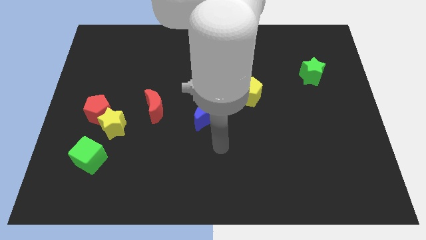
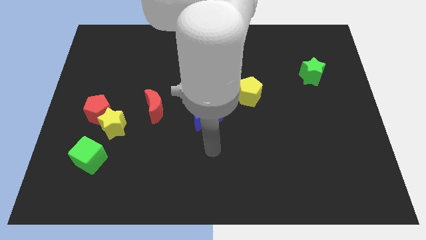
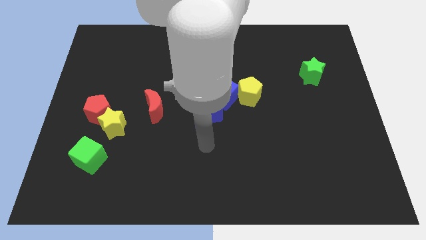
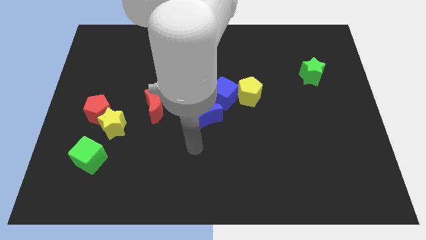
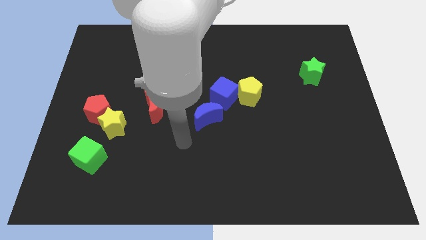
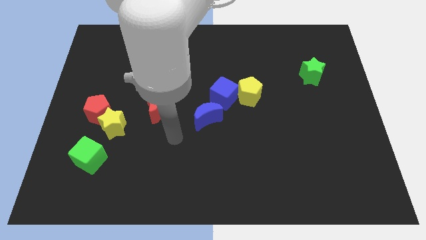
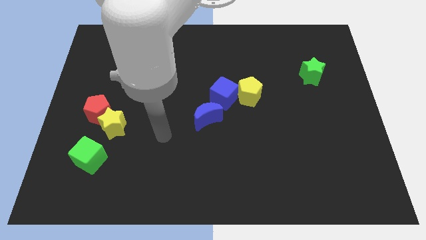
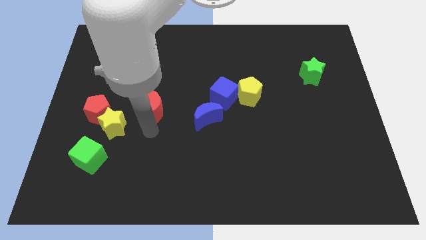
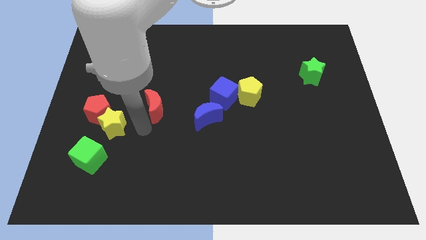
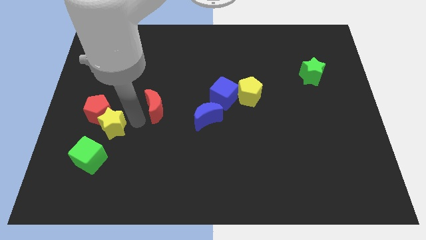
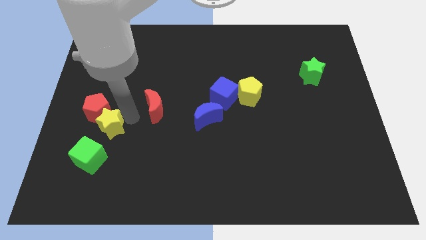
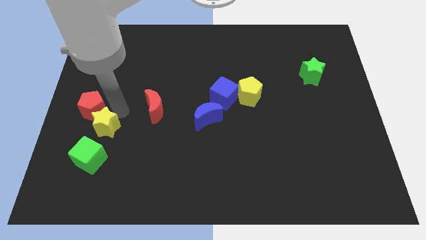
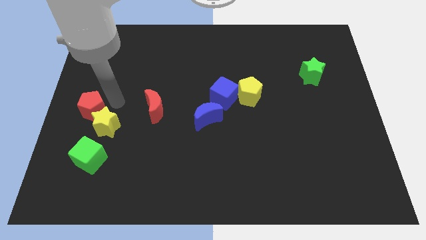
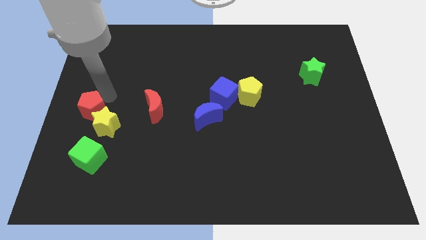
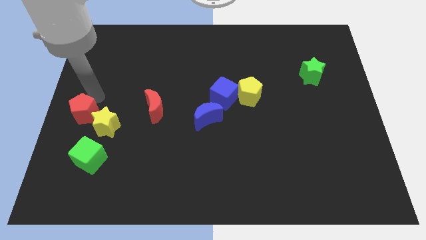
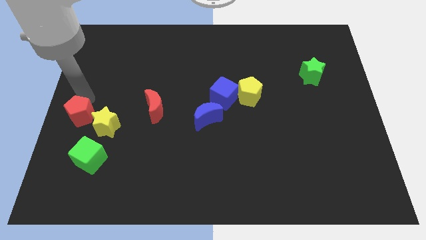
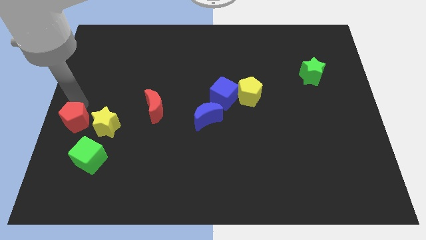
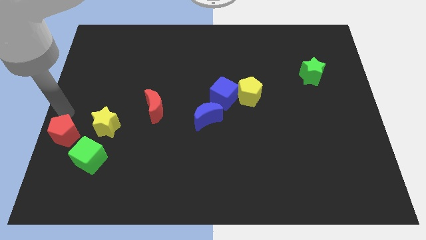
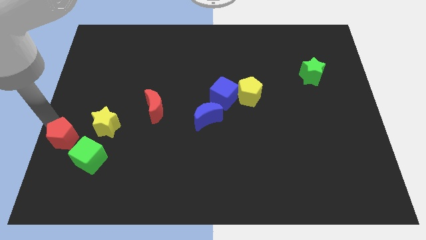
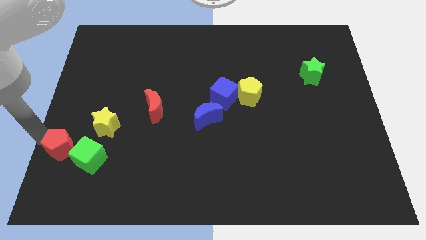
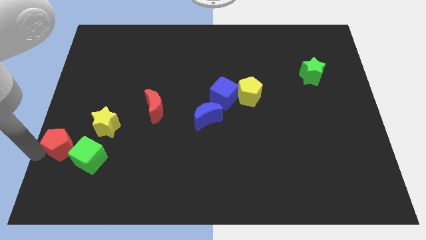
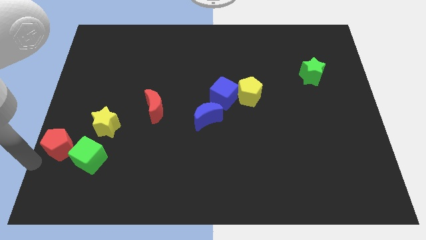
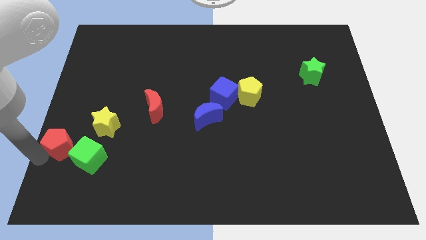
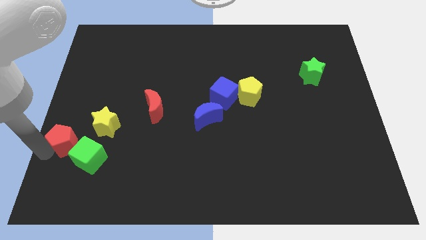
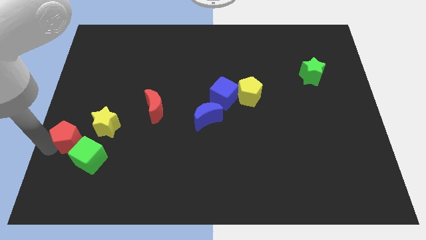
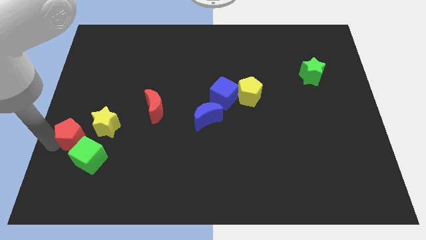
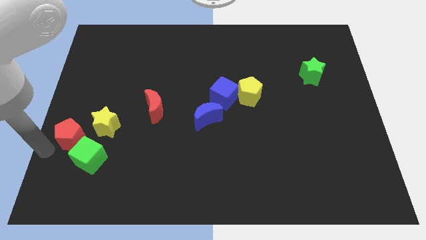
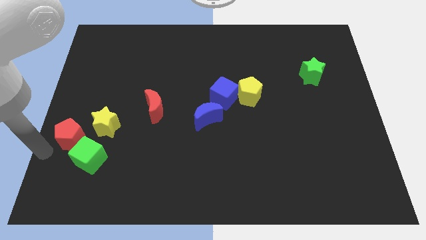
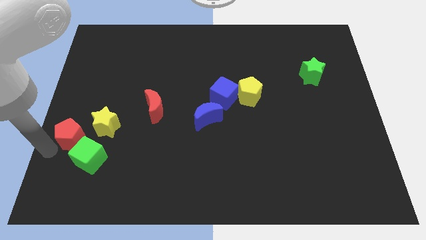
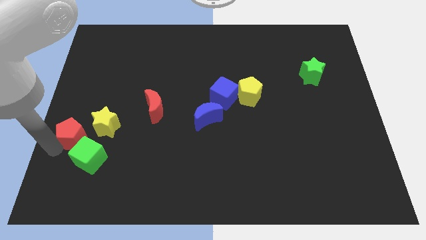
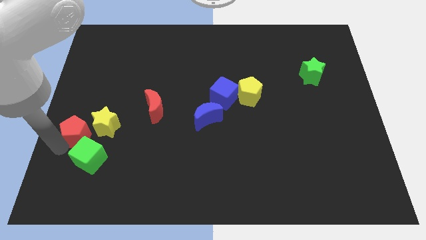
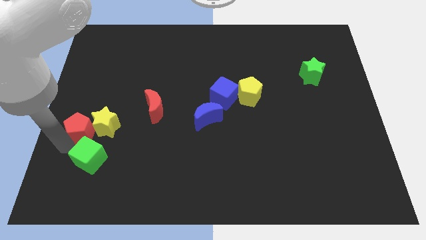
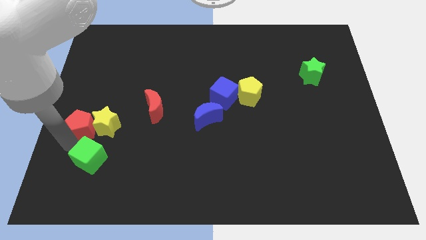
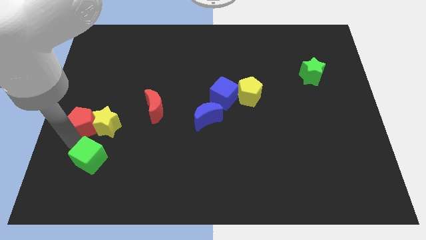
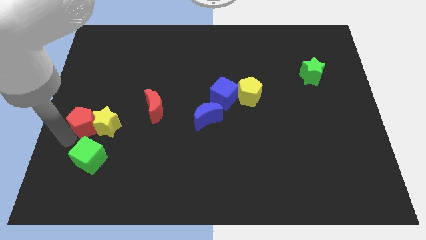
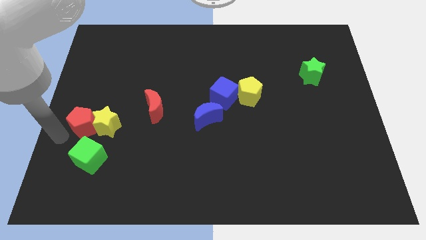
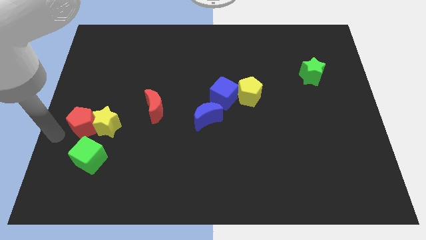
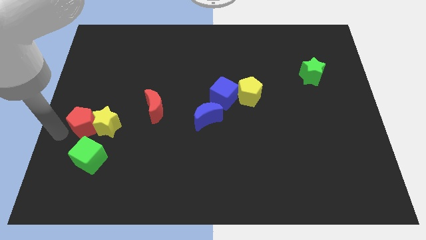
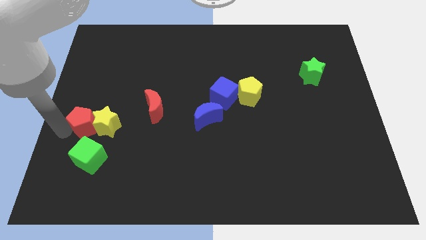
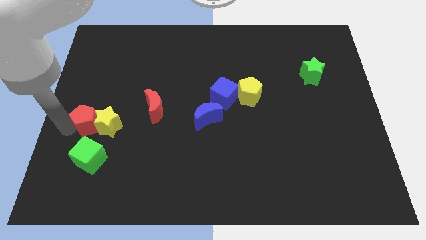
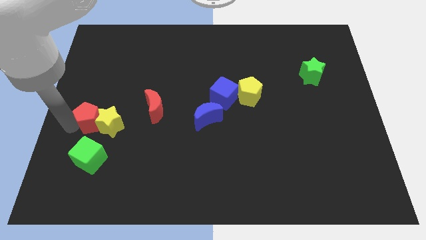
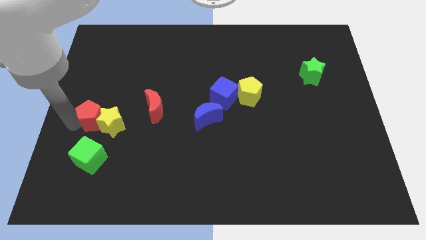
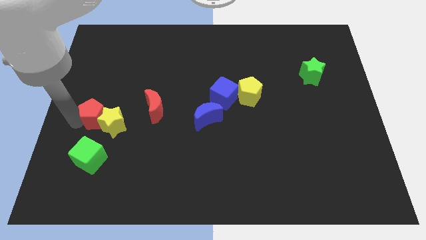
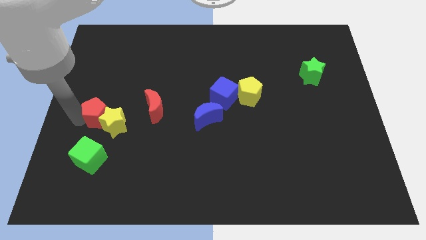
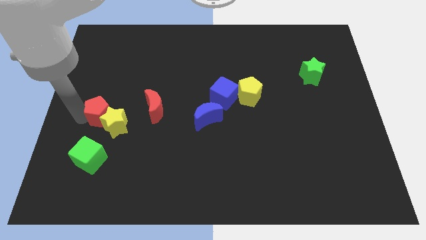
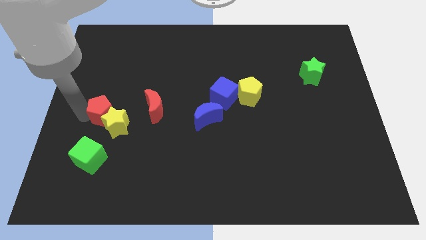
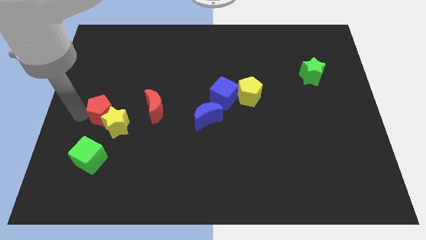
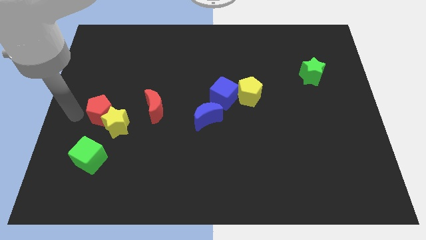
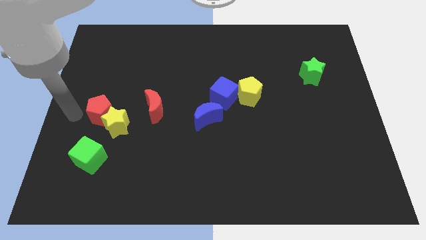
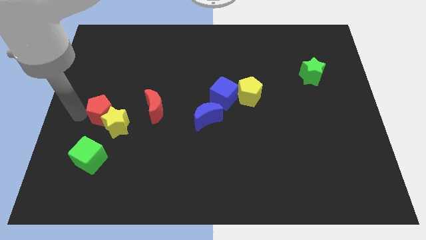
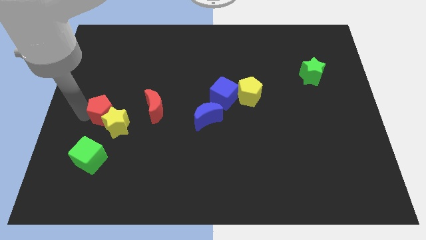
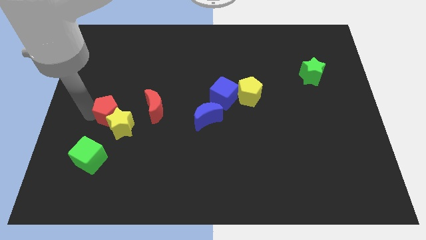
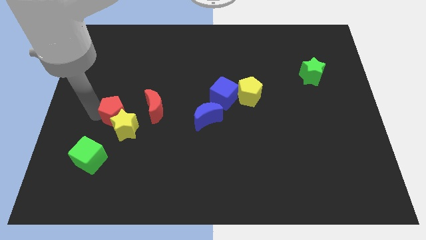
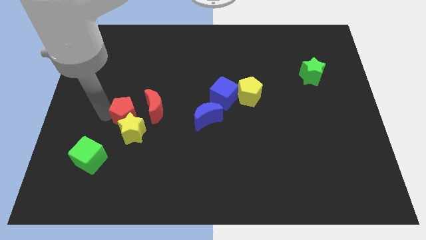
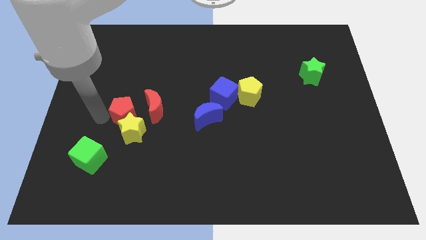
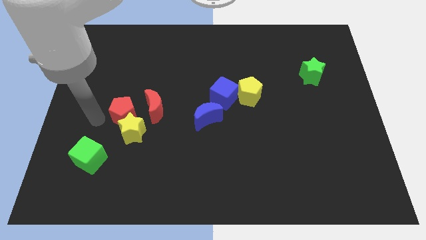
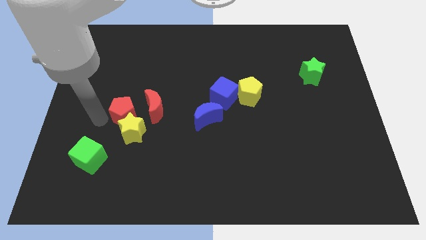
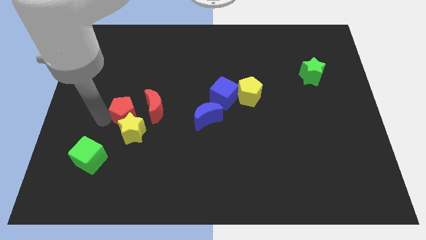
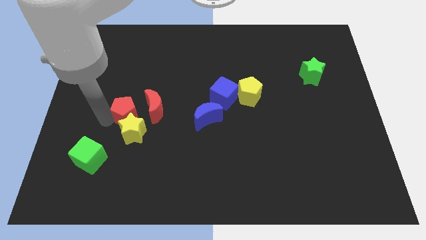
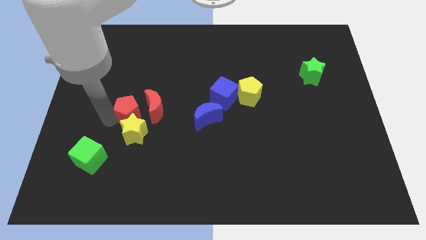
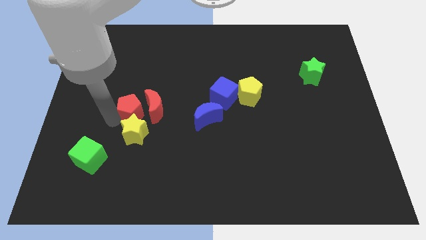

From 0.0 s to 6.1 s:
put the red pentagon close to the red moon

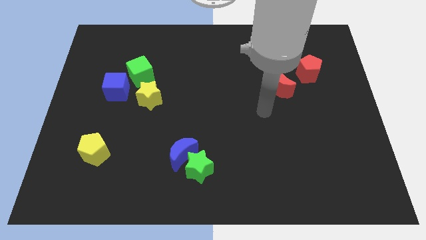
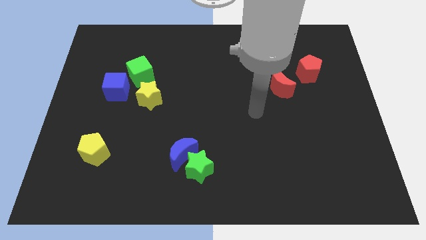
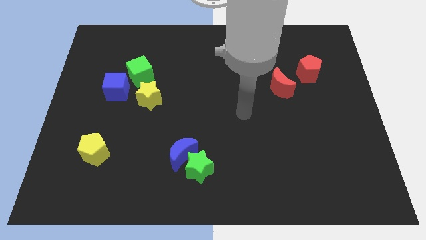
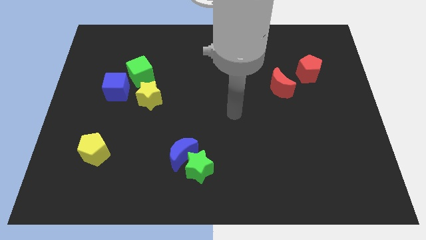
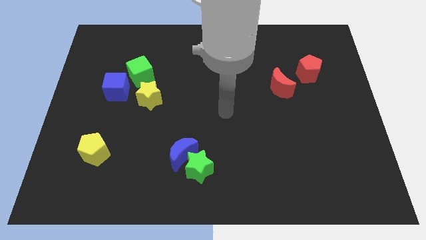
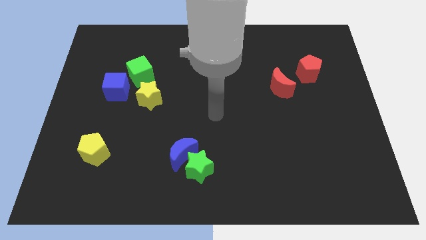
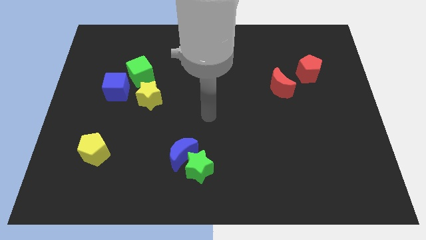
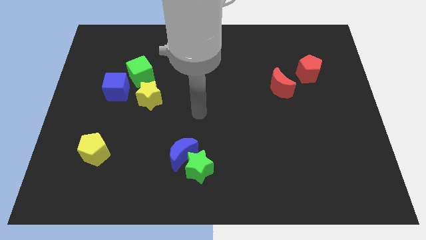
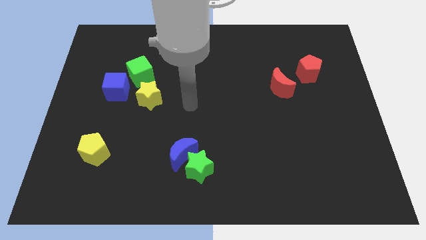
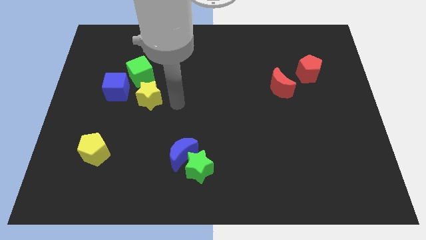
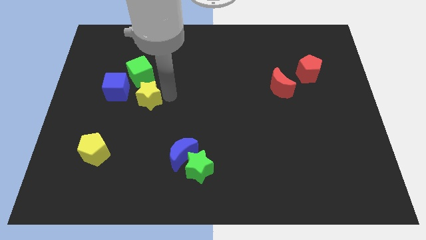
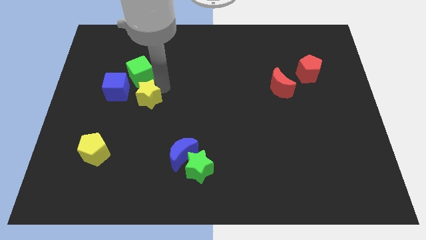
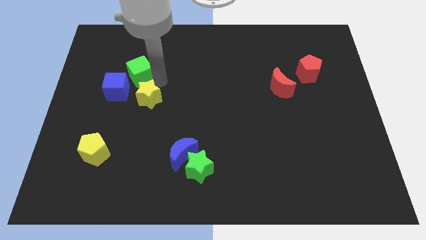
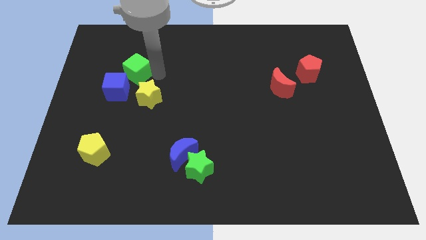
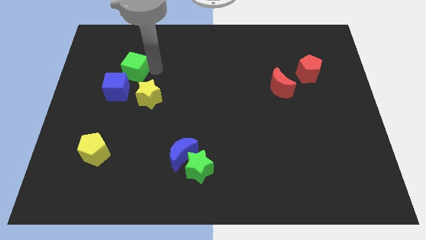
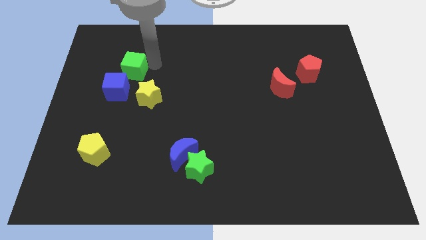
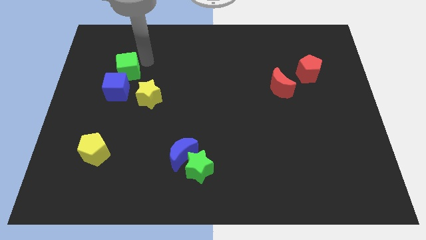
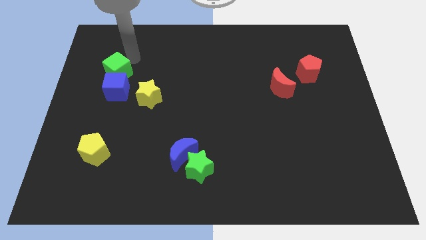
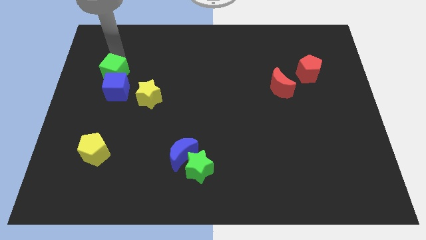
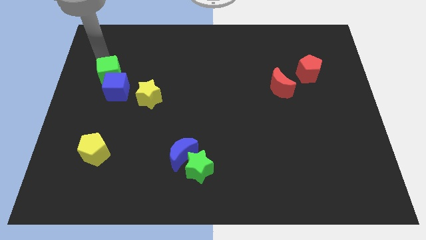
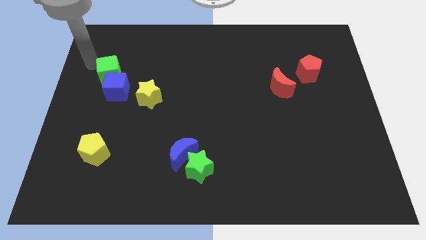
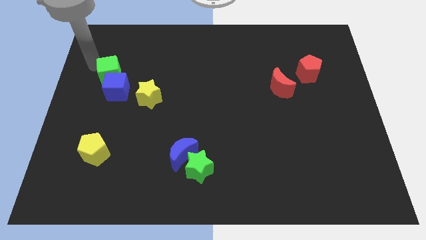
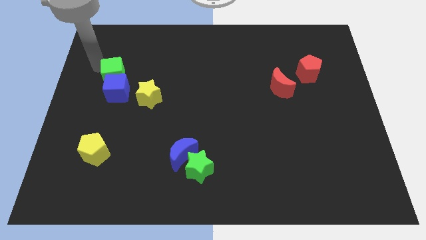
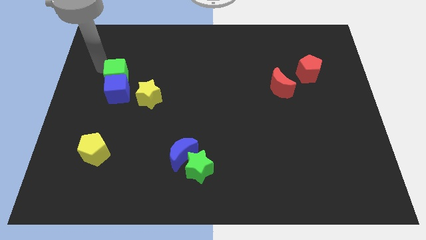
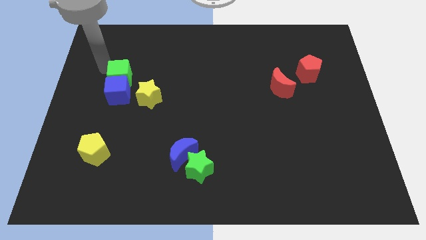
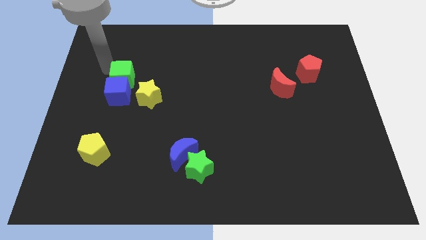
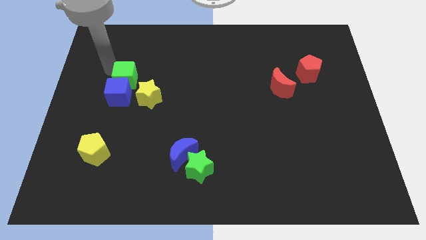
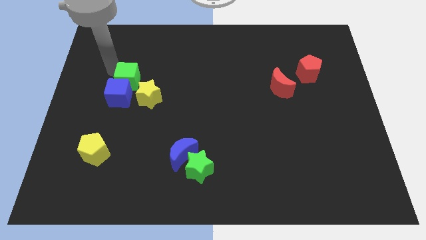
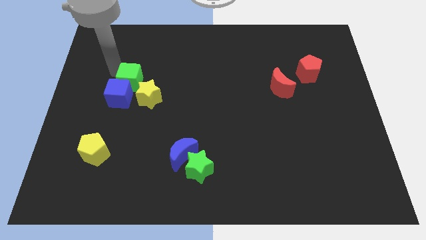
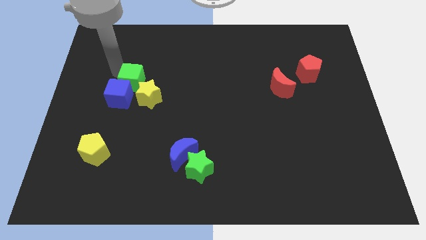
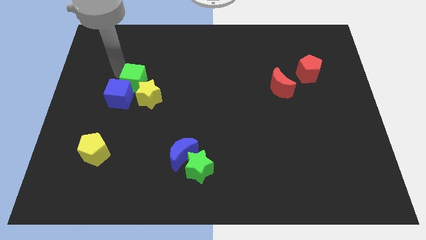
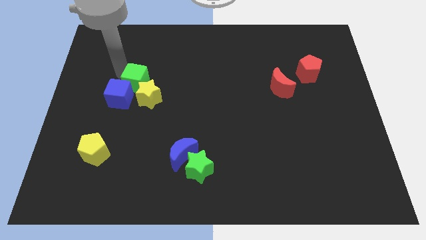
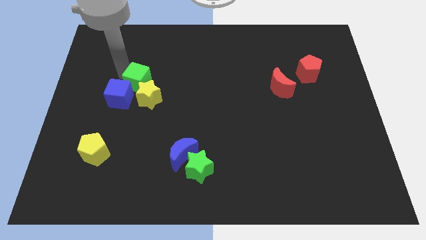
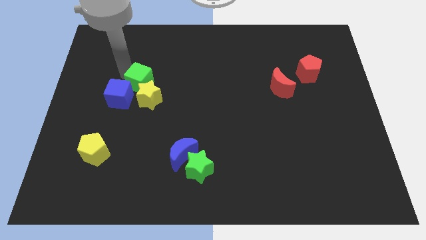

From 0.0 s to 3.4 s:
push the green cube to the yellow star
